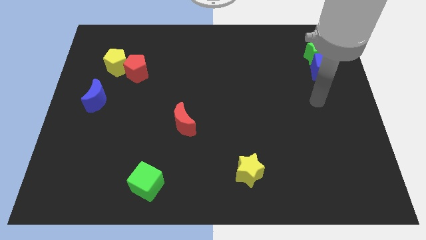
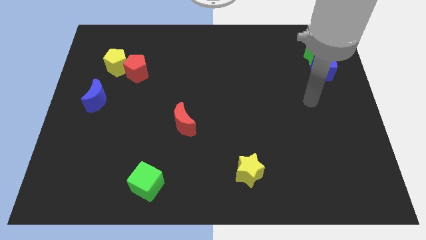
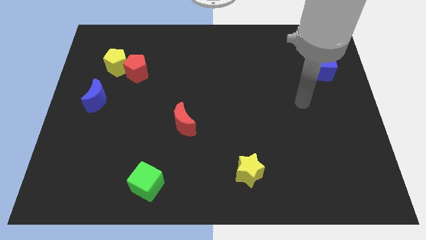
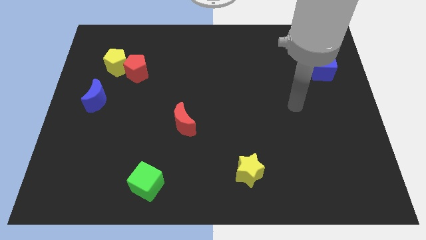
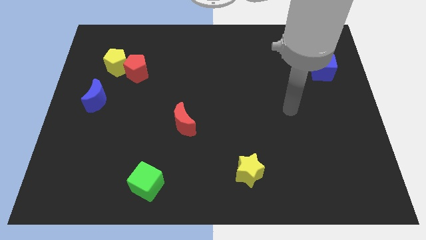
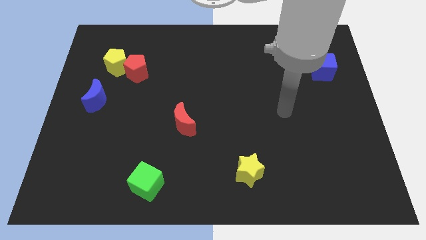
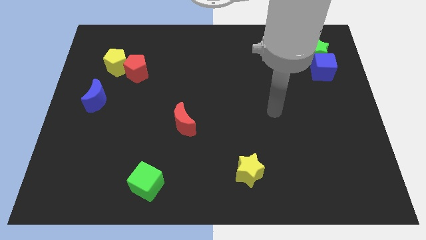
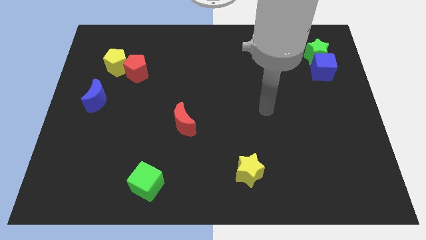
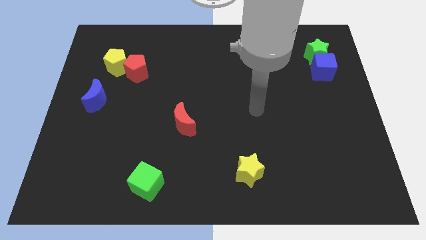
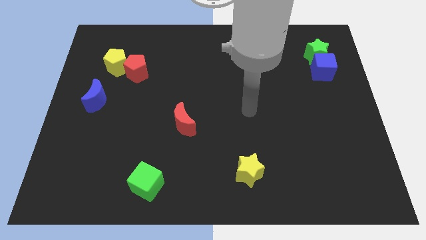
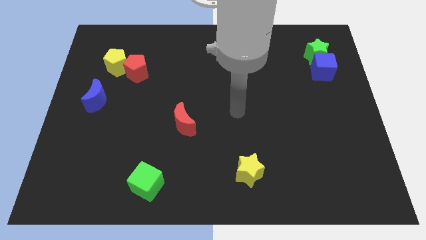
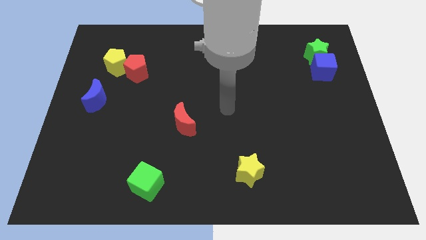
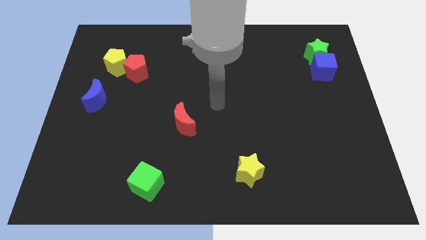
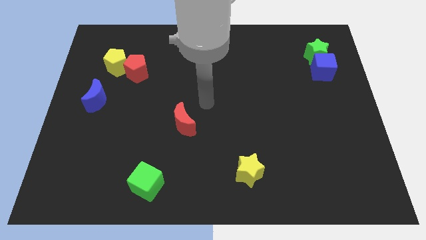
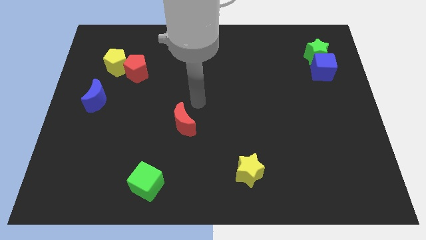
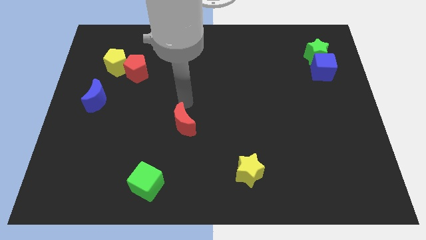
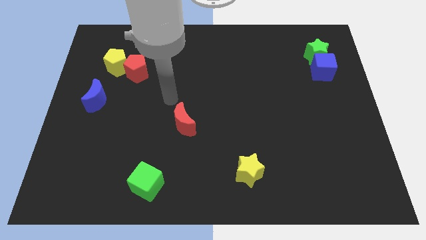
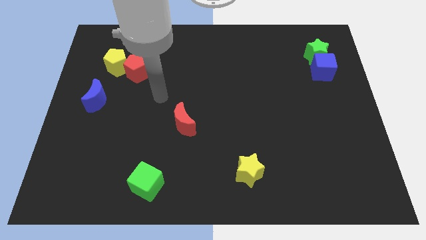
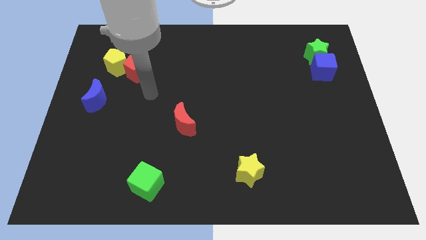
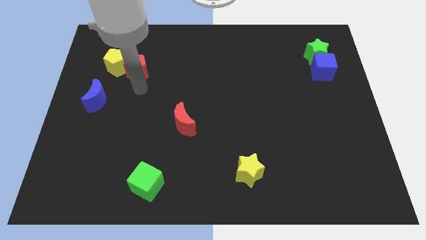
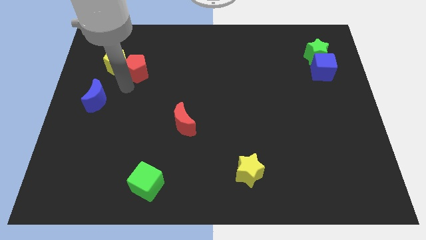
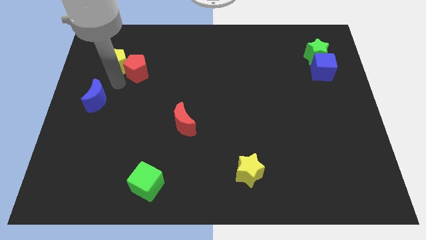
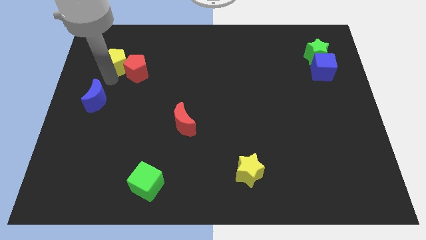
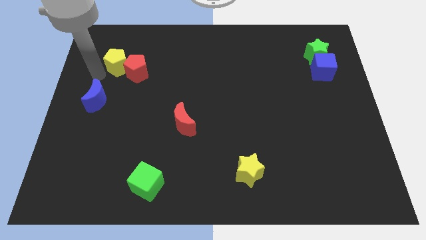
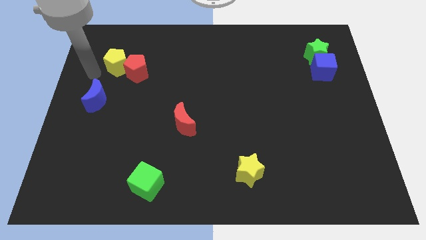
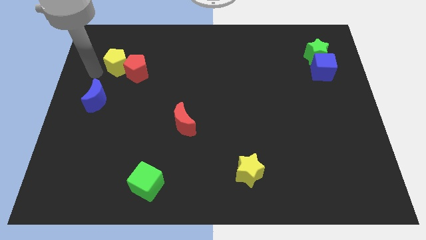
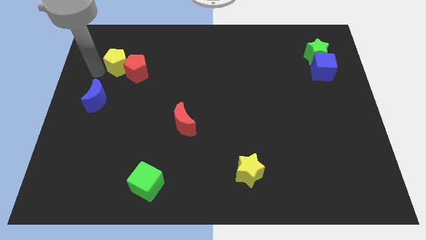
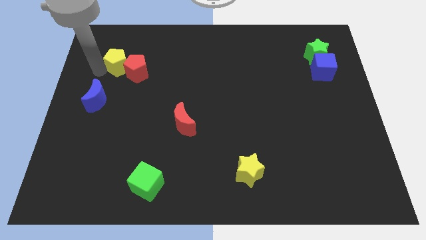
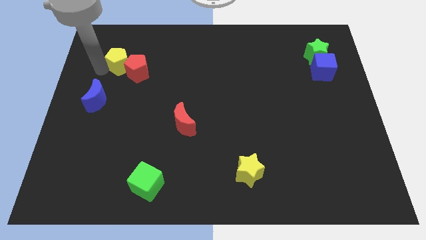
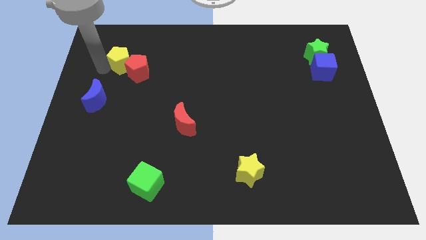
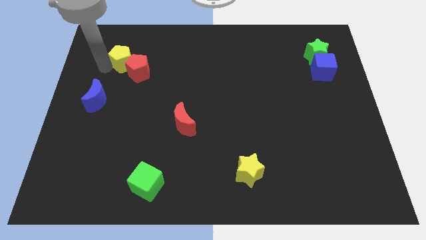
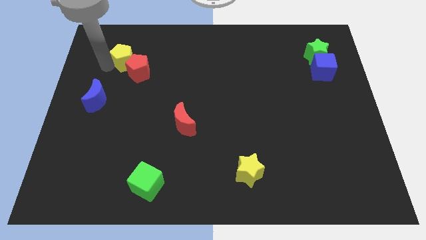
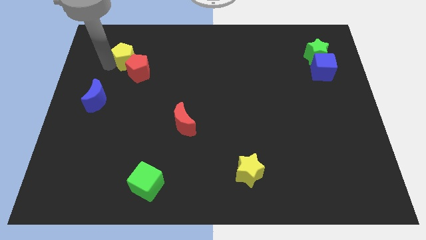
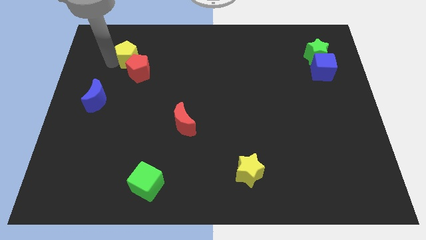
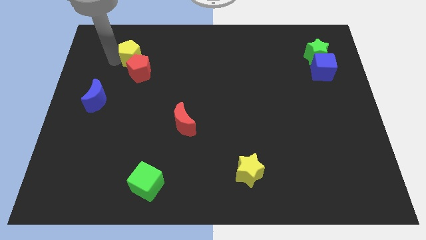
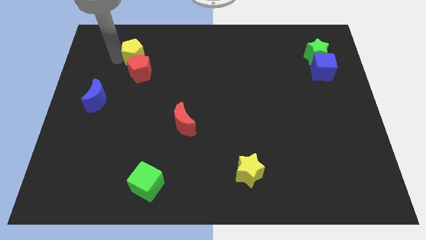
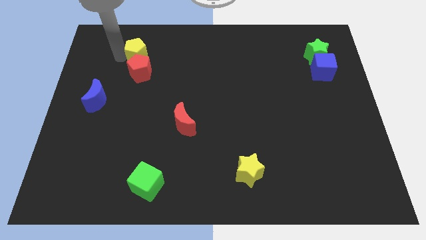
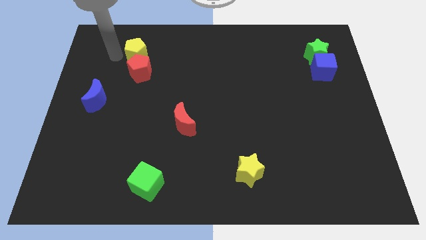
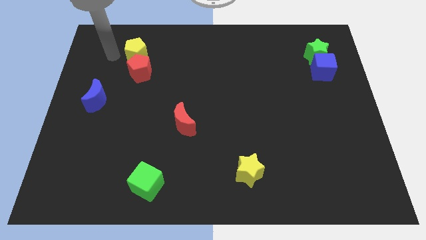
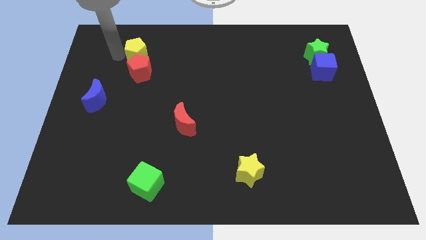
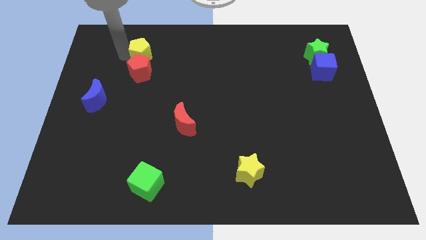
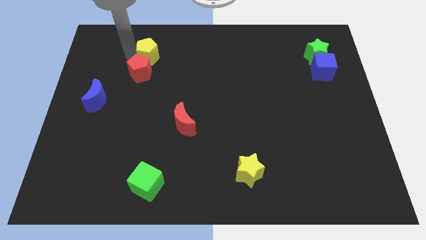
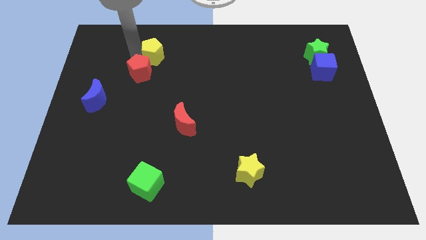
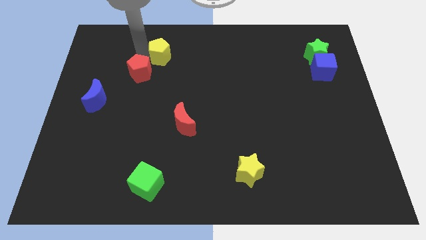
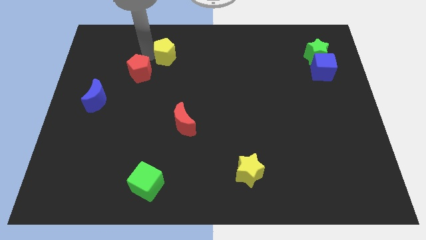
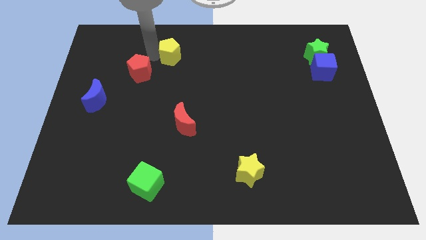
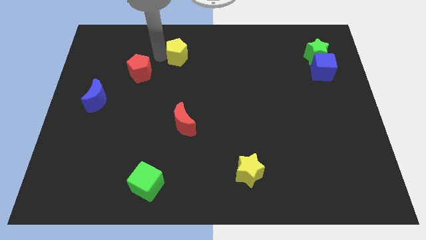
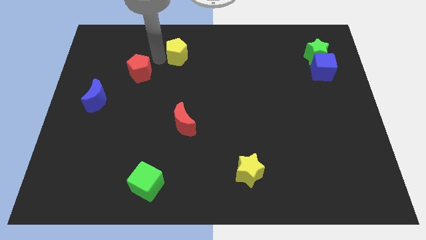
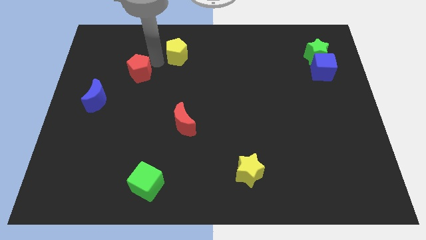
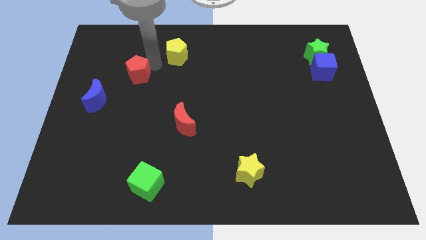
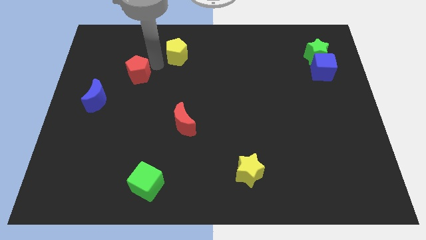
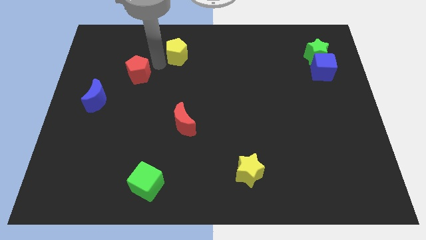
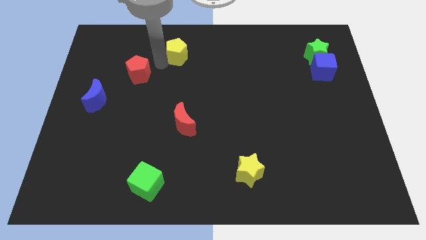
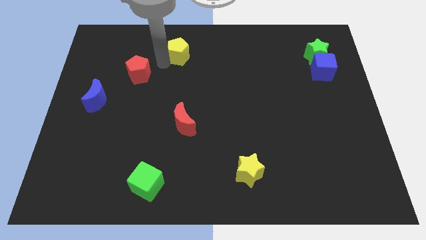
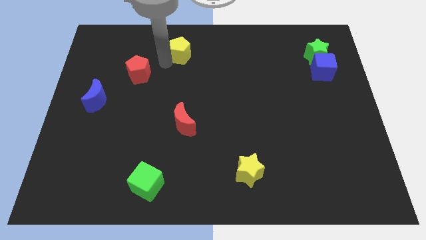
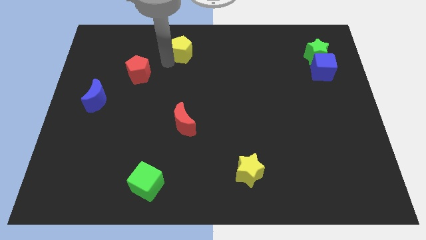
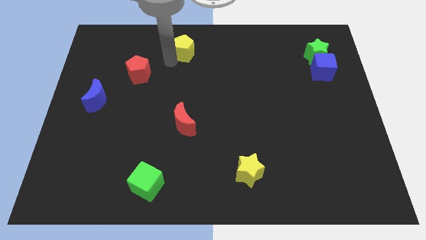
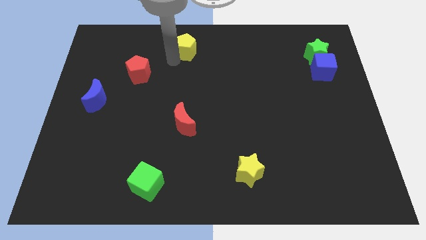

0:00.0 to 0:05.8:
push the yellow pentagon to the top

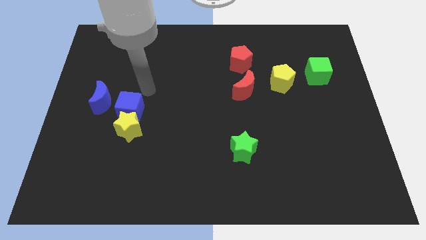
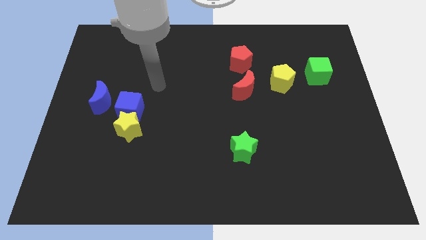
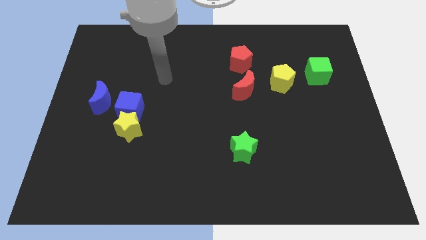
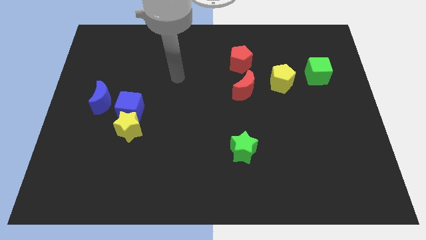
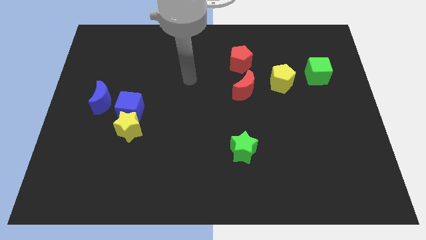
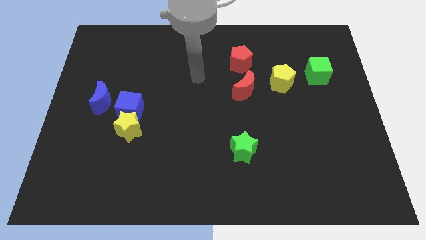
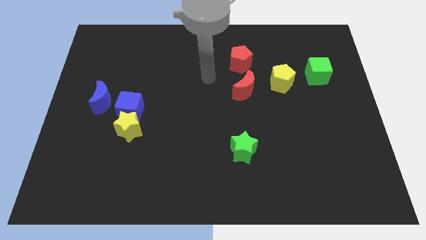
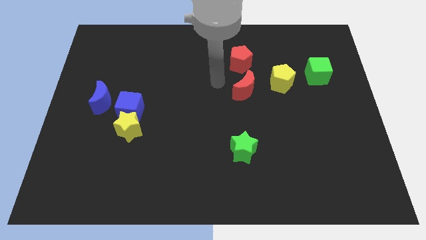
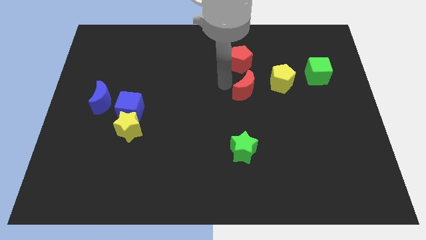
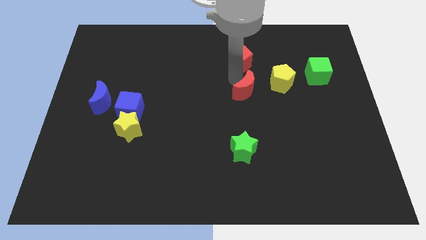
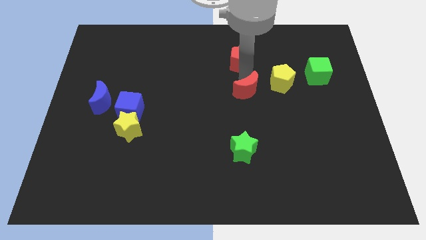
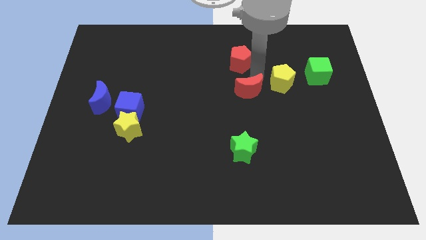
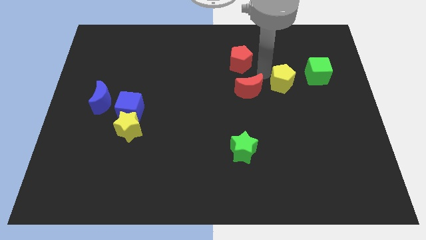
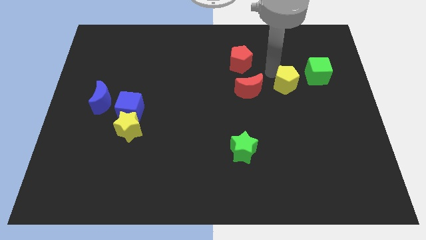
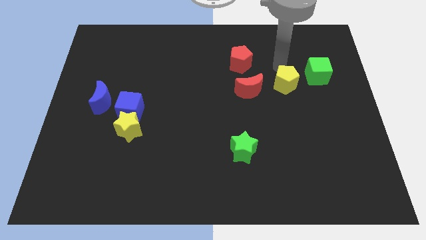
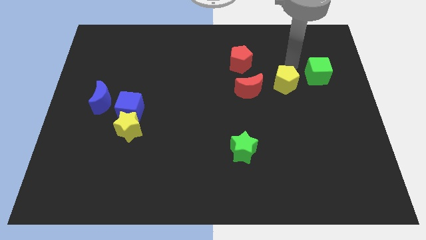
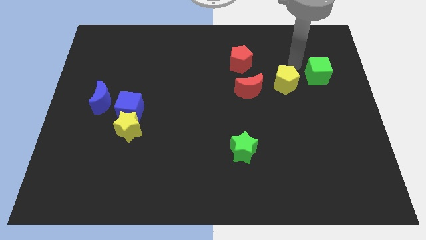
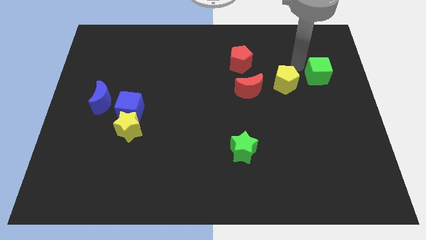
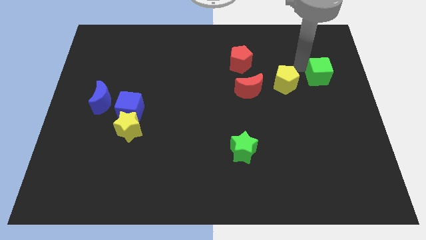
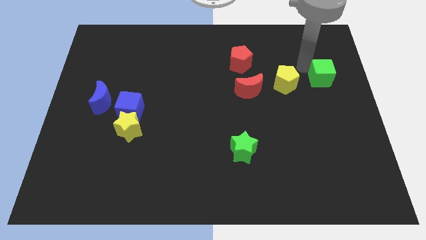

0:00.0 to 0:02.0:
push the green cube to the right side of the board
